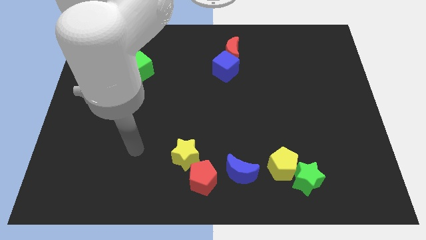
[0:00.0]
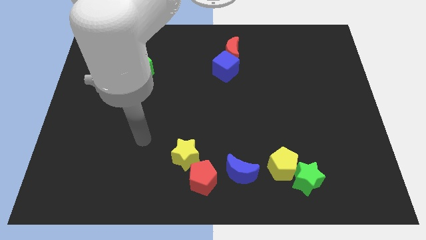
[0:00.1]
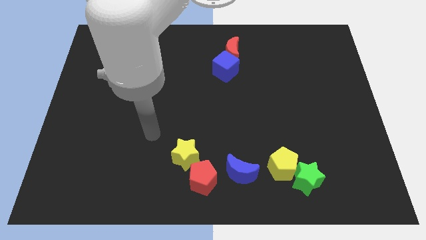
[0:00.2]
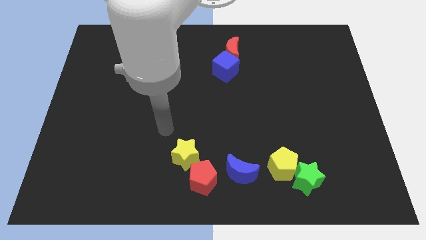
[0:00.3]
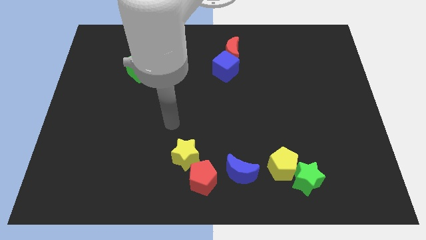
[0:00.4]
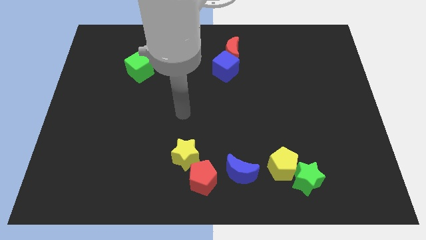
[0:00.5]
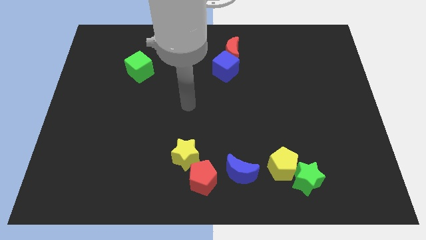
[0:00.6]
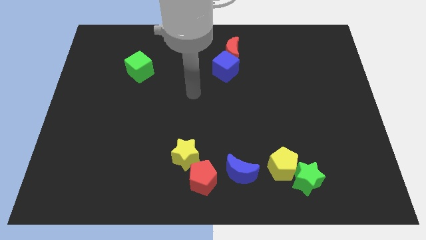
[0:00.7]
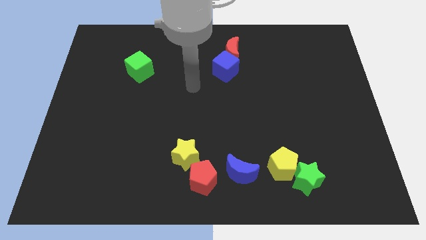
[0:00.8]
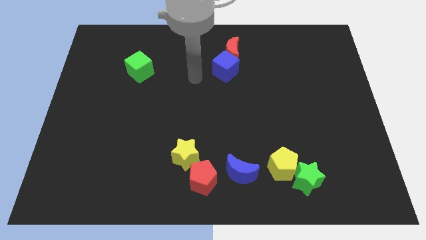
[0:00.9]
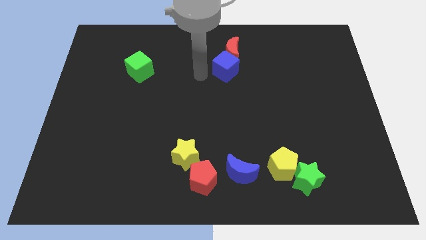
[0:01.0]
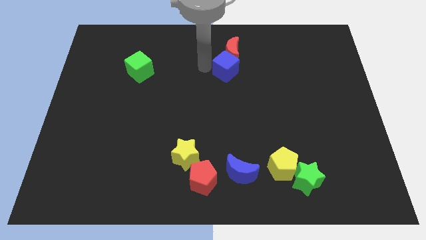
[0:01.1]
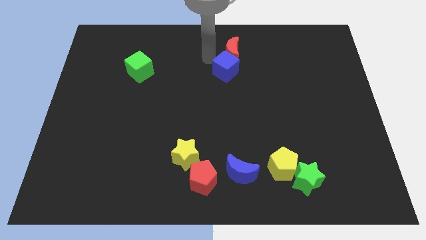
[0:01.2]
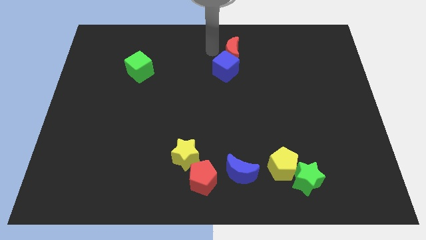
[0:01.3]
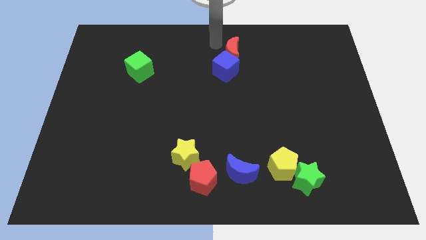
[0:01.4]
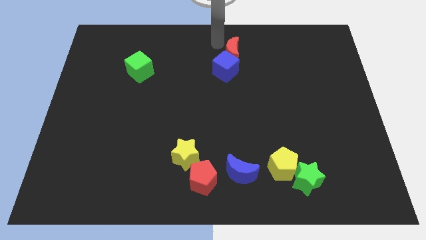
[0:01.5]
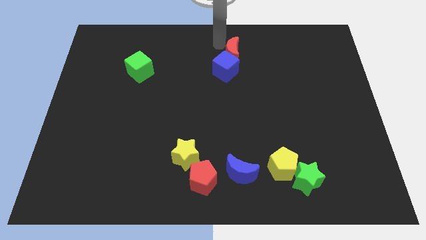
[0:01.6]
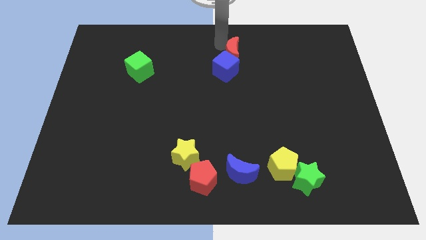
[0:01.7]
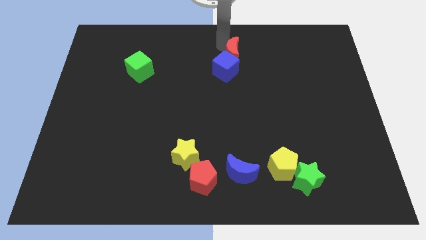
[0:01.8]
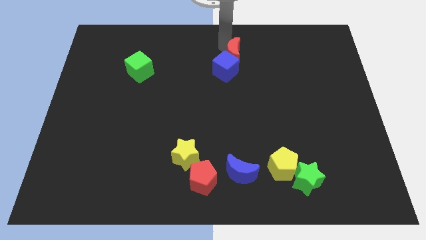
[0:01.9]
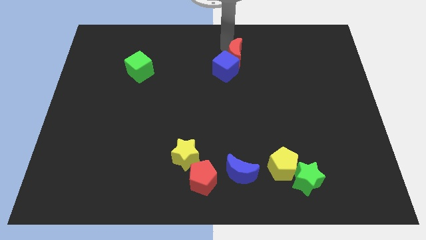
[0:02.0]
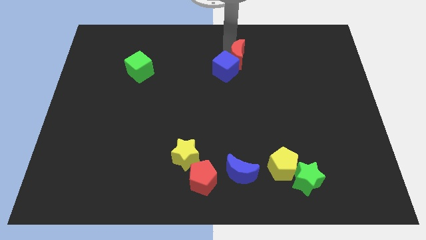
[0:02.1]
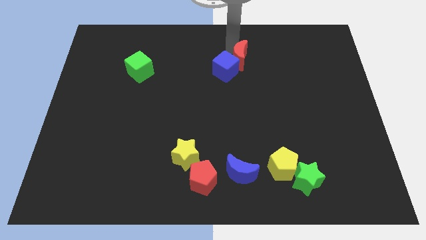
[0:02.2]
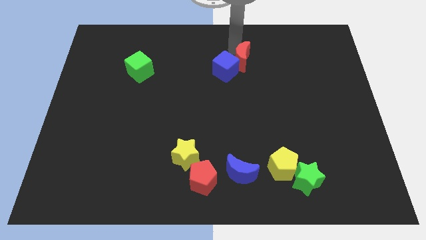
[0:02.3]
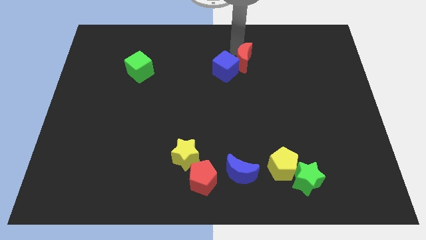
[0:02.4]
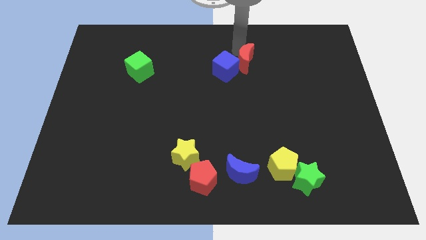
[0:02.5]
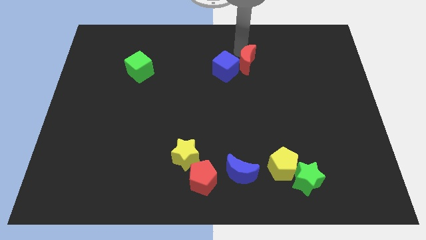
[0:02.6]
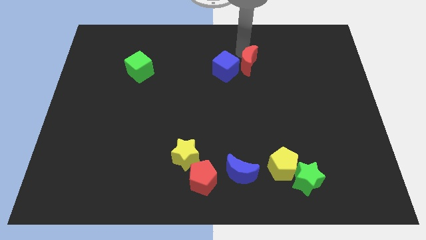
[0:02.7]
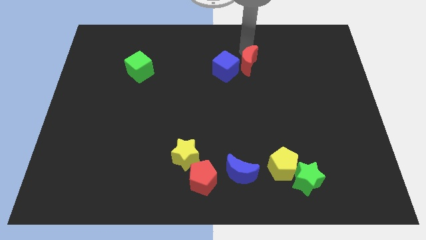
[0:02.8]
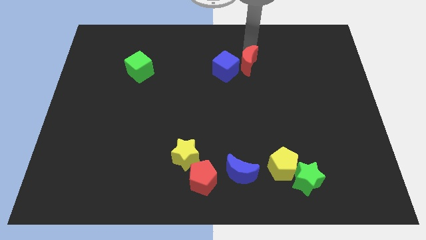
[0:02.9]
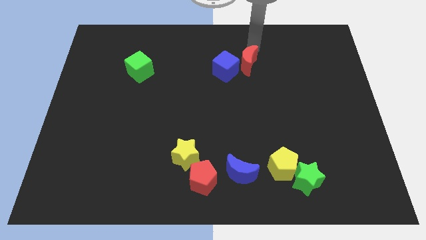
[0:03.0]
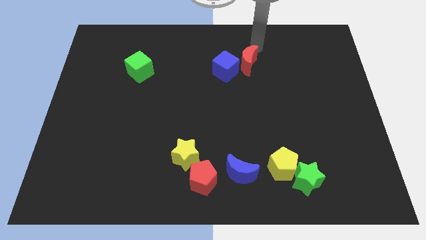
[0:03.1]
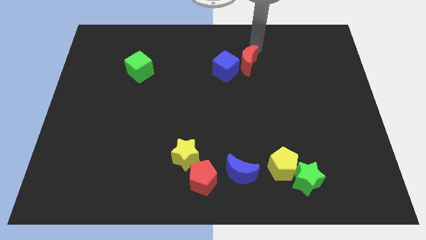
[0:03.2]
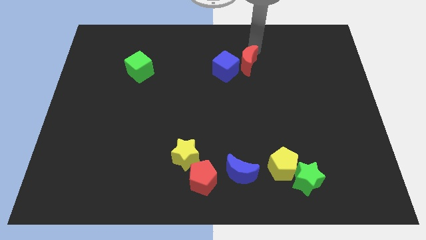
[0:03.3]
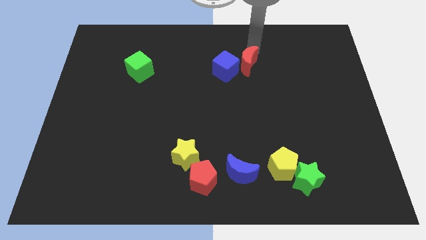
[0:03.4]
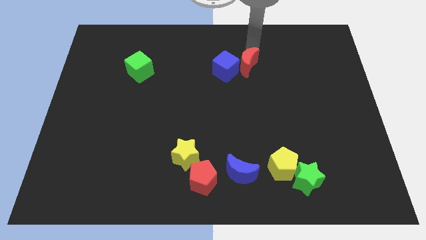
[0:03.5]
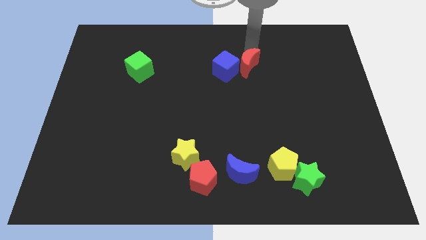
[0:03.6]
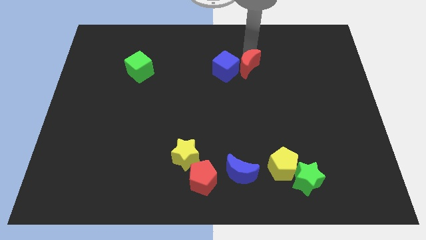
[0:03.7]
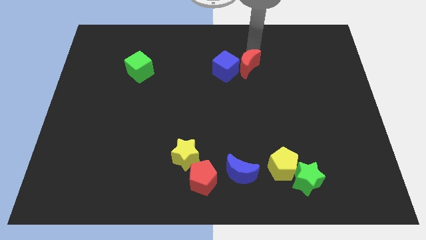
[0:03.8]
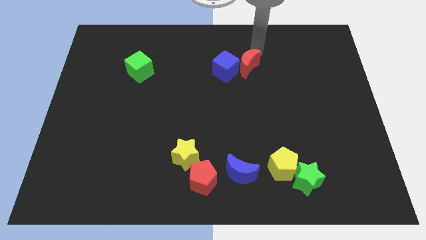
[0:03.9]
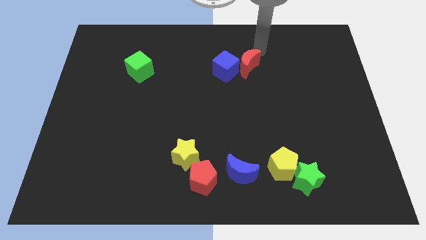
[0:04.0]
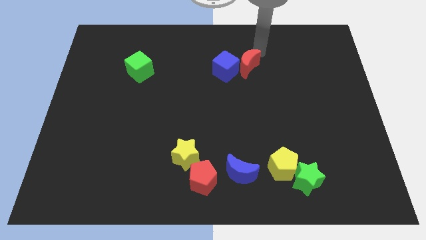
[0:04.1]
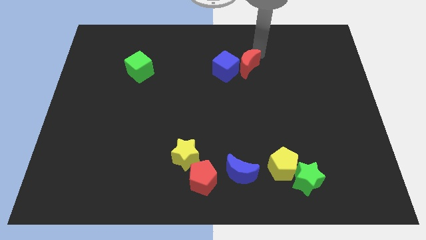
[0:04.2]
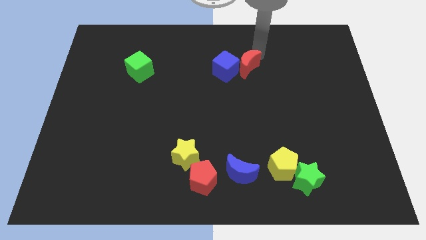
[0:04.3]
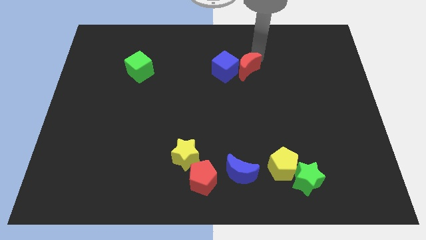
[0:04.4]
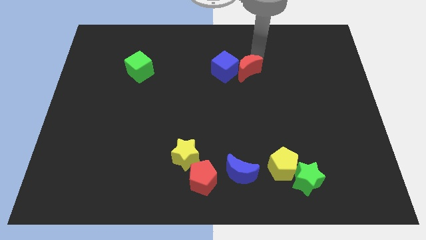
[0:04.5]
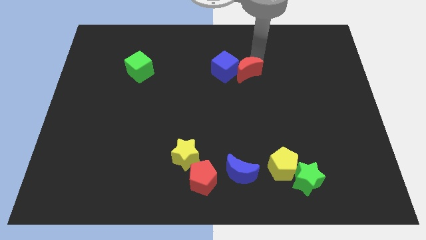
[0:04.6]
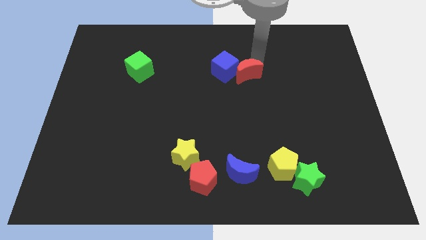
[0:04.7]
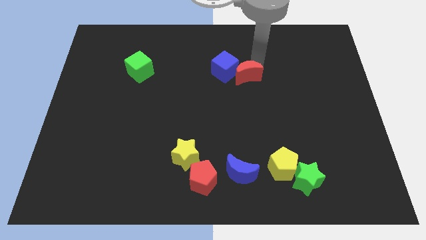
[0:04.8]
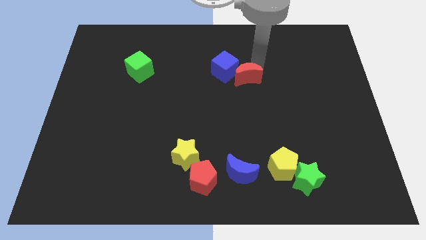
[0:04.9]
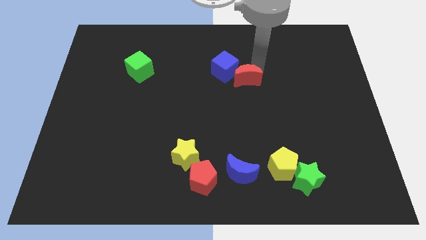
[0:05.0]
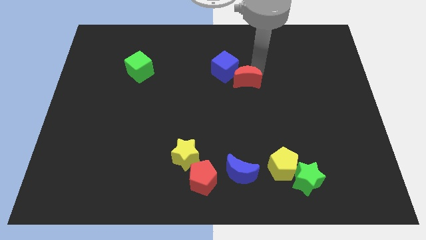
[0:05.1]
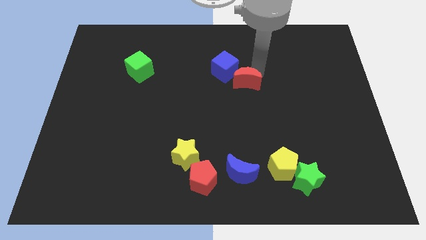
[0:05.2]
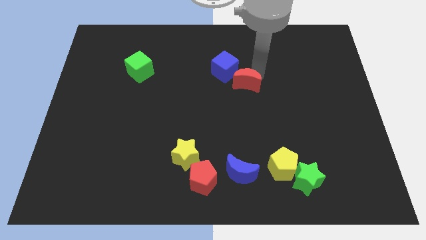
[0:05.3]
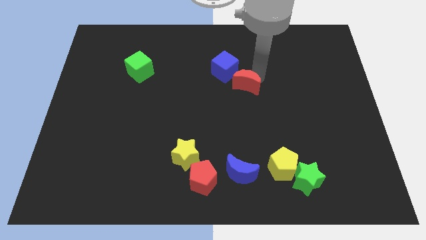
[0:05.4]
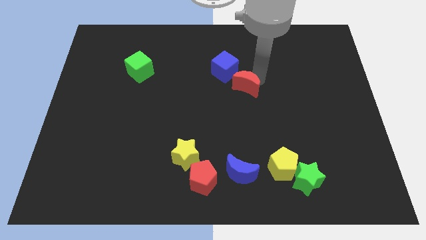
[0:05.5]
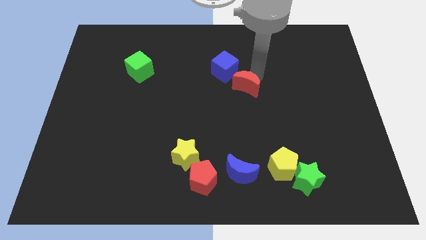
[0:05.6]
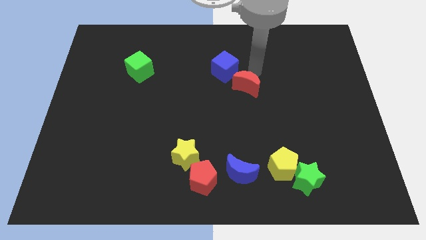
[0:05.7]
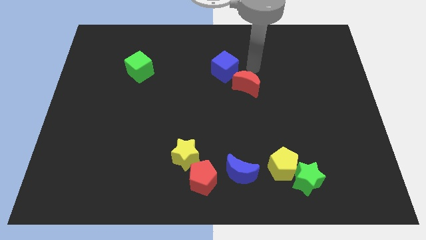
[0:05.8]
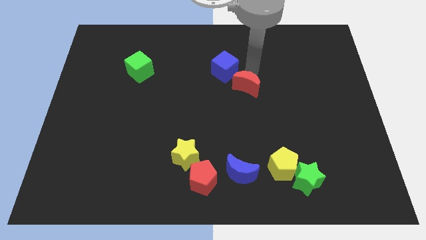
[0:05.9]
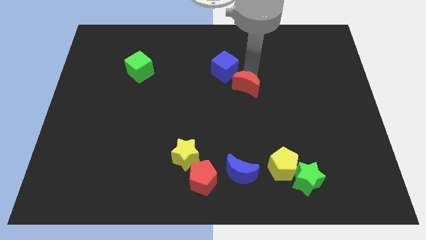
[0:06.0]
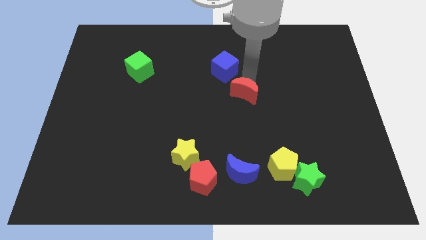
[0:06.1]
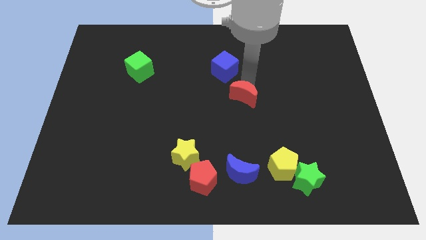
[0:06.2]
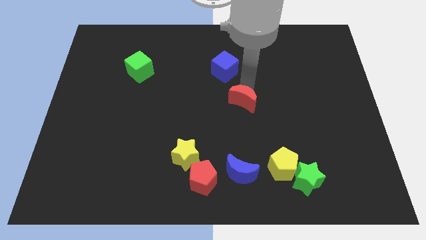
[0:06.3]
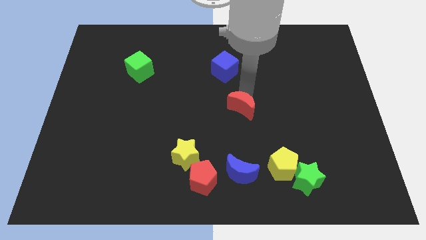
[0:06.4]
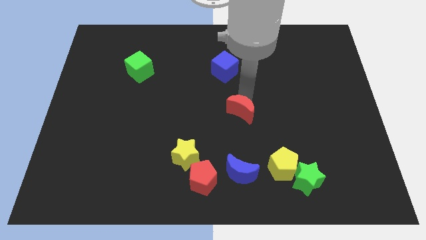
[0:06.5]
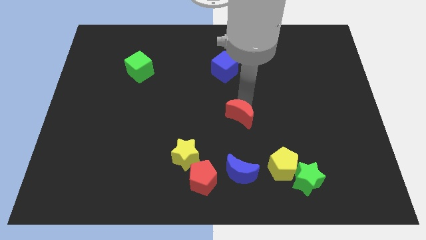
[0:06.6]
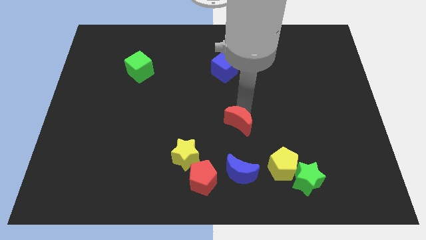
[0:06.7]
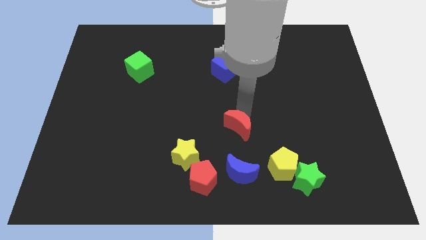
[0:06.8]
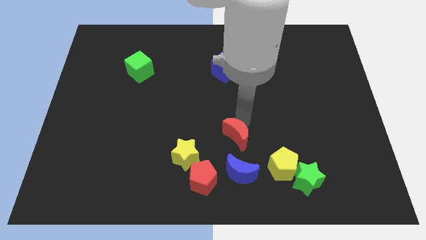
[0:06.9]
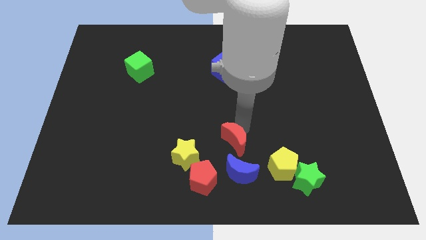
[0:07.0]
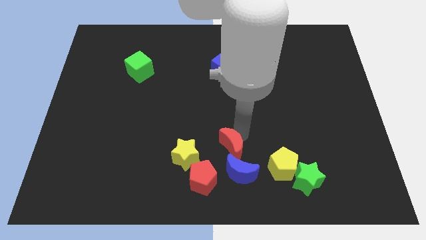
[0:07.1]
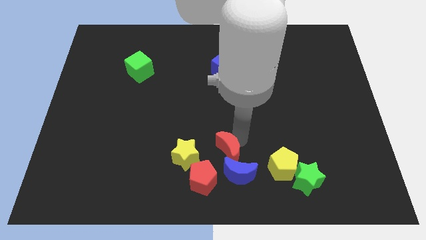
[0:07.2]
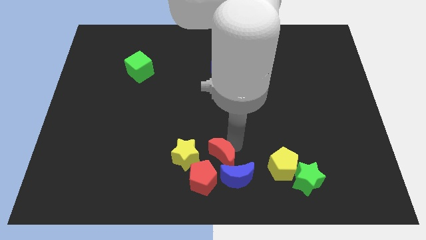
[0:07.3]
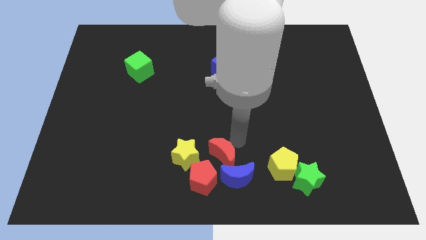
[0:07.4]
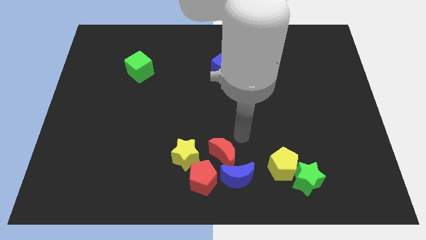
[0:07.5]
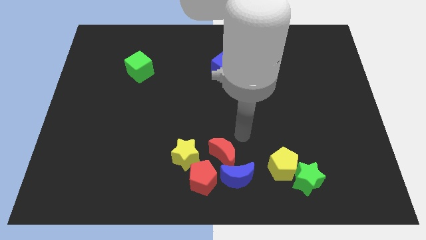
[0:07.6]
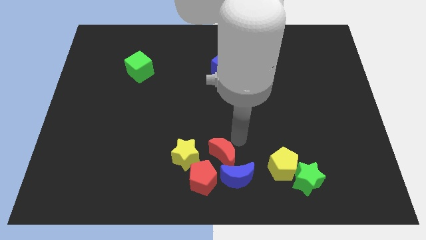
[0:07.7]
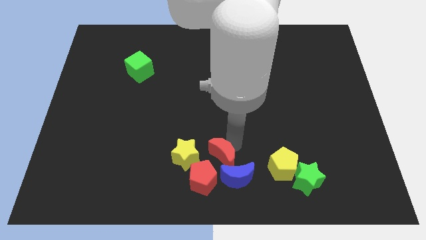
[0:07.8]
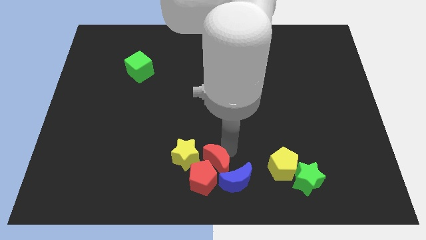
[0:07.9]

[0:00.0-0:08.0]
slide the red moon to the red pentagon
